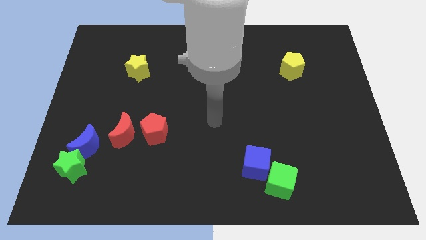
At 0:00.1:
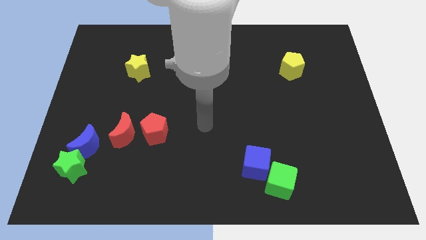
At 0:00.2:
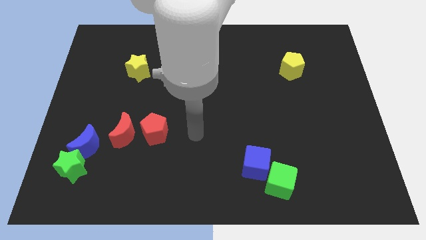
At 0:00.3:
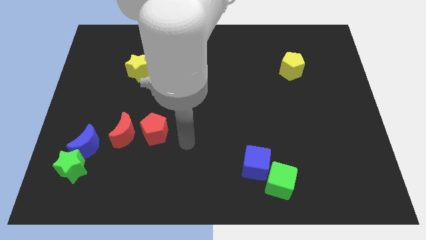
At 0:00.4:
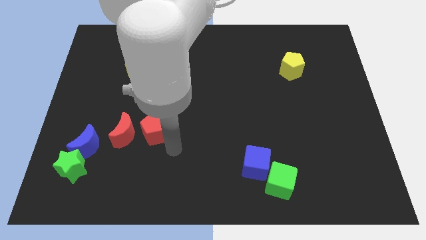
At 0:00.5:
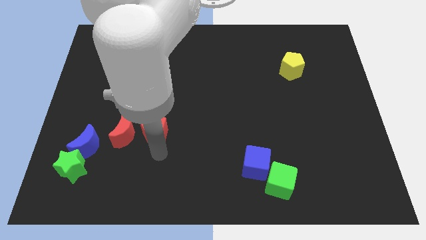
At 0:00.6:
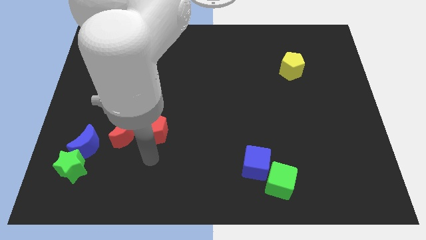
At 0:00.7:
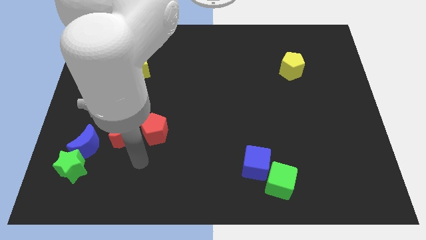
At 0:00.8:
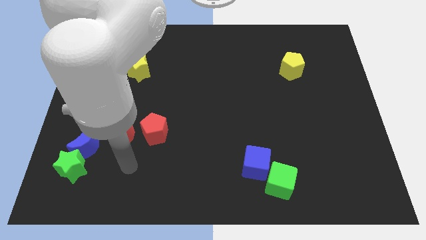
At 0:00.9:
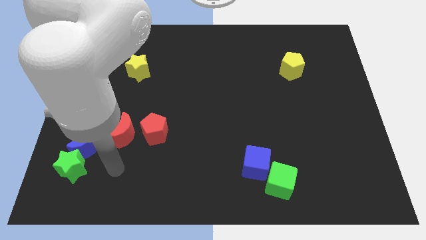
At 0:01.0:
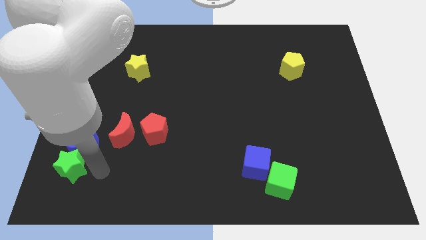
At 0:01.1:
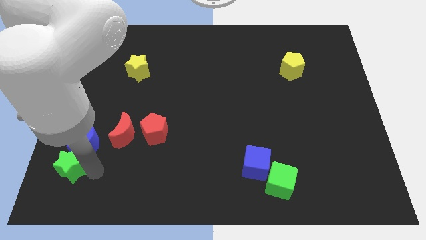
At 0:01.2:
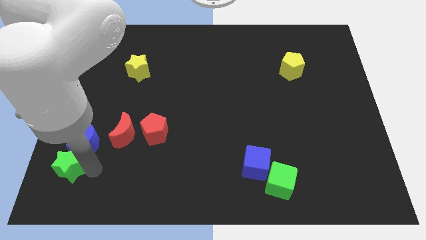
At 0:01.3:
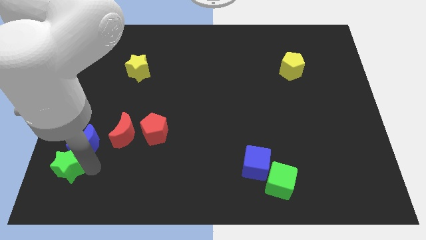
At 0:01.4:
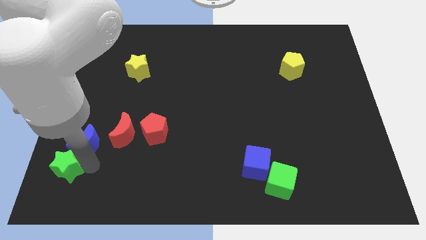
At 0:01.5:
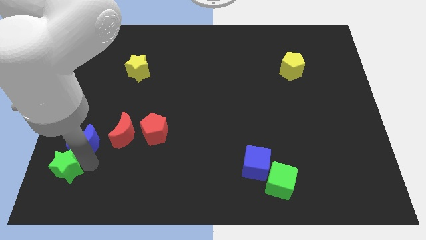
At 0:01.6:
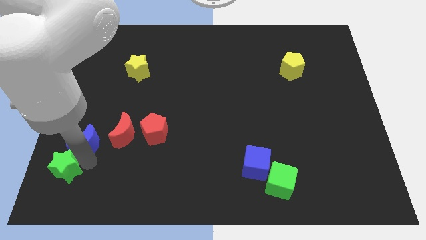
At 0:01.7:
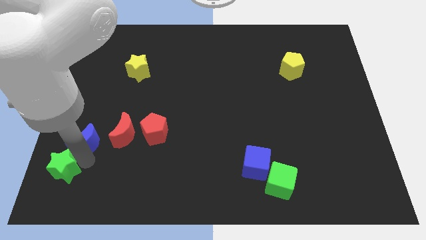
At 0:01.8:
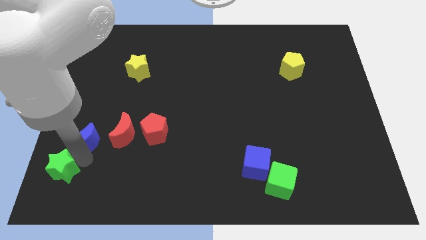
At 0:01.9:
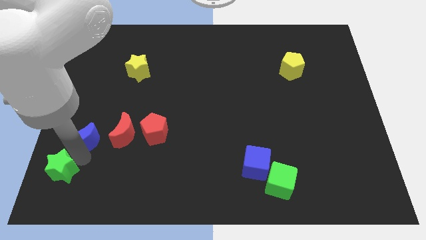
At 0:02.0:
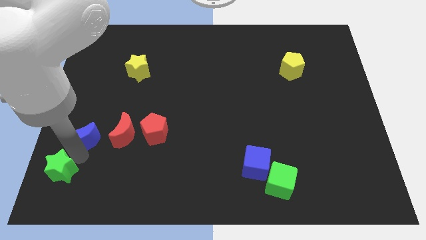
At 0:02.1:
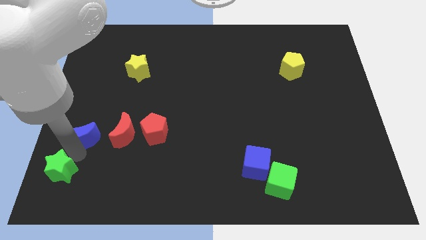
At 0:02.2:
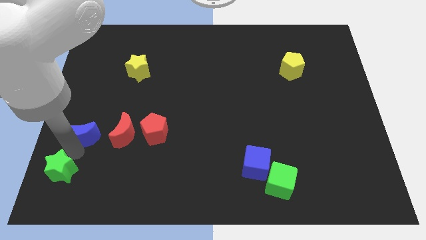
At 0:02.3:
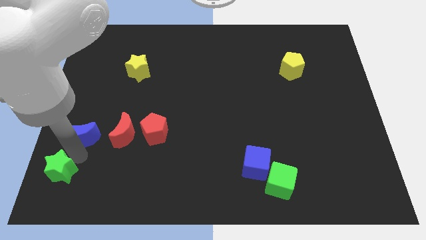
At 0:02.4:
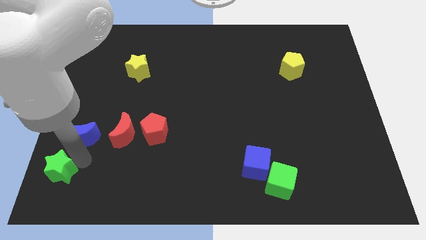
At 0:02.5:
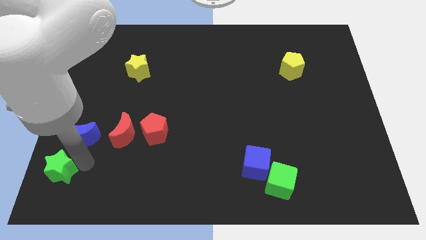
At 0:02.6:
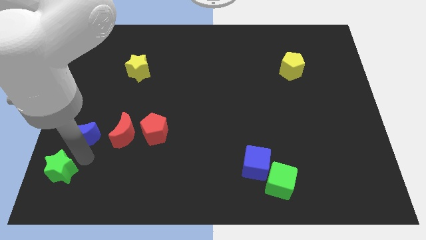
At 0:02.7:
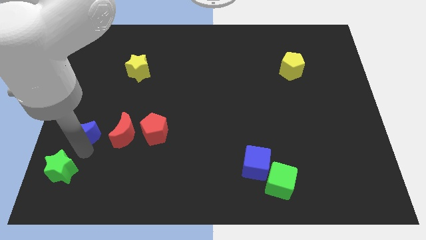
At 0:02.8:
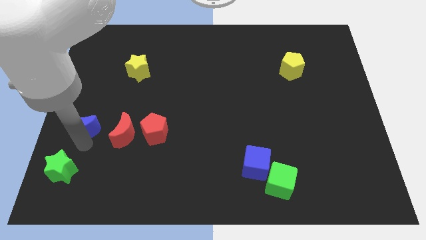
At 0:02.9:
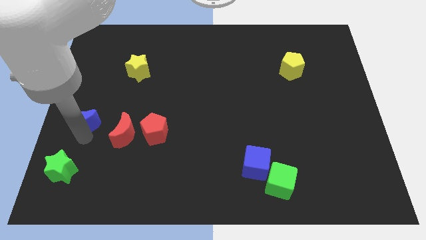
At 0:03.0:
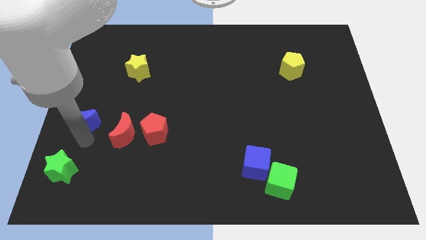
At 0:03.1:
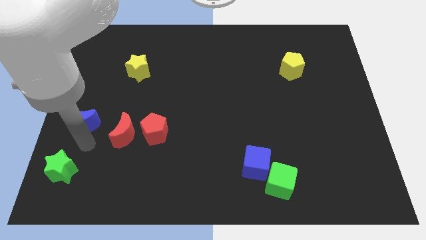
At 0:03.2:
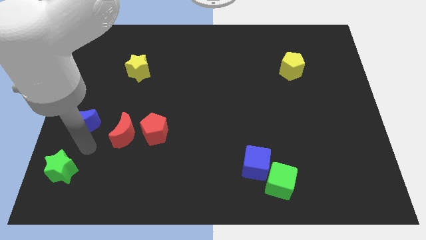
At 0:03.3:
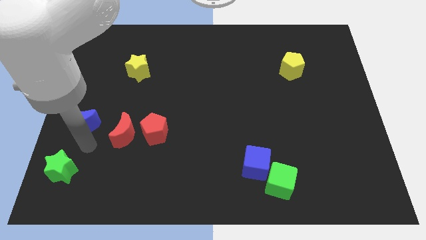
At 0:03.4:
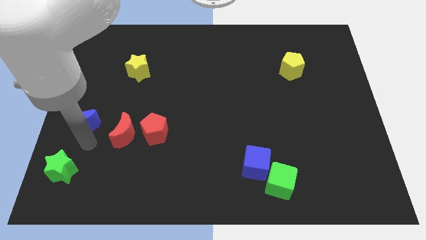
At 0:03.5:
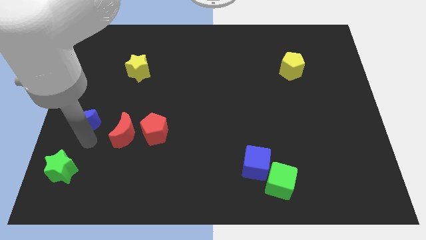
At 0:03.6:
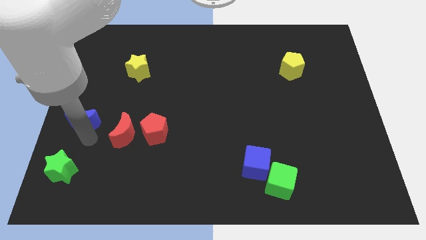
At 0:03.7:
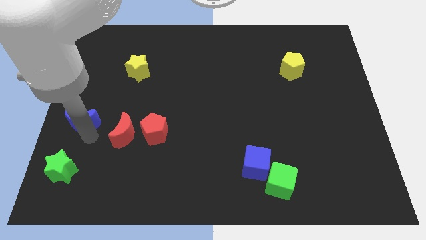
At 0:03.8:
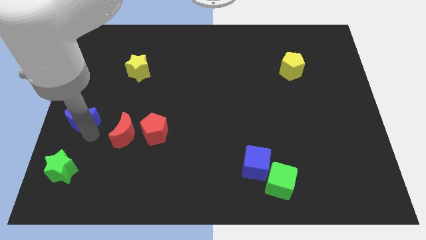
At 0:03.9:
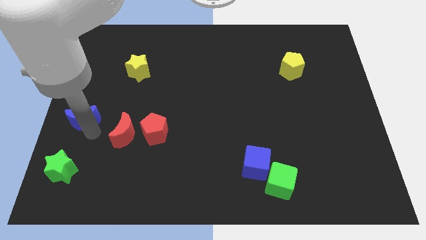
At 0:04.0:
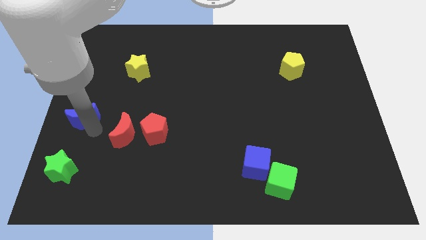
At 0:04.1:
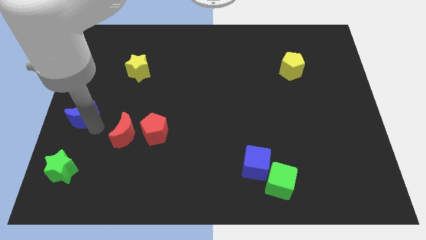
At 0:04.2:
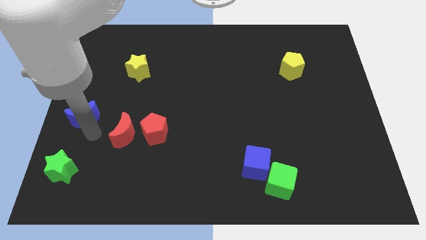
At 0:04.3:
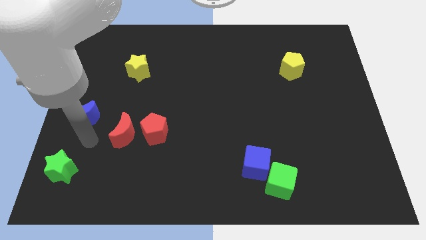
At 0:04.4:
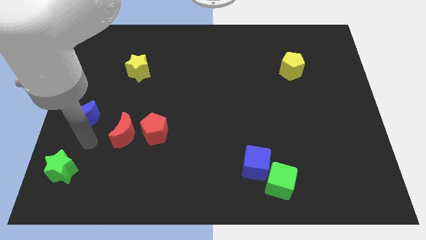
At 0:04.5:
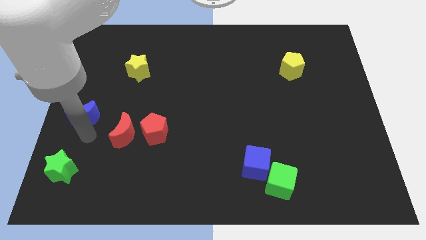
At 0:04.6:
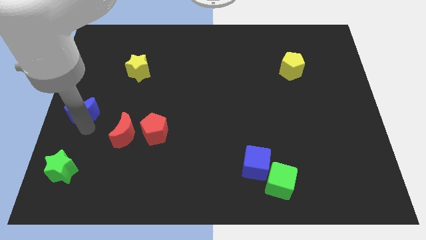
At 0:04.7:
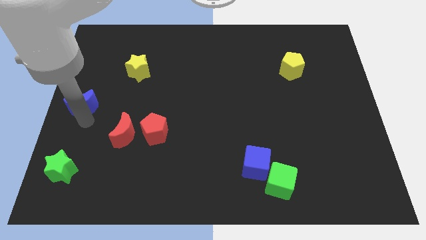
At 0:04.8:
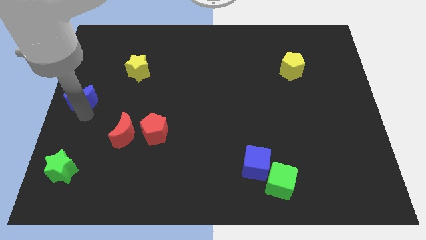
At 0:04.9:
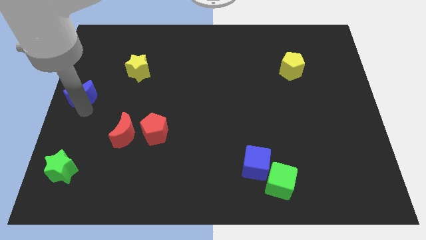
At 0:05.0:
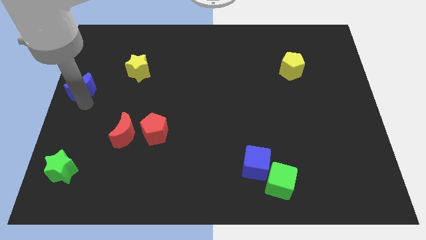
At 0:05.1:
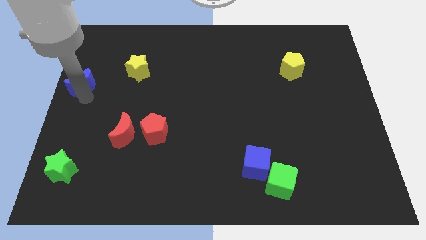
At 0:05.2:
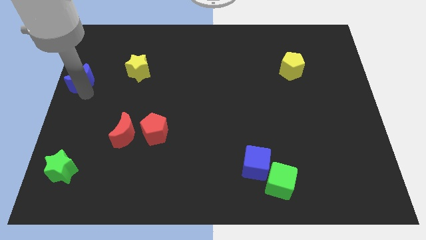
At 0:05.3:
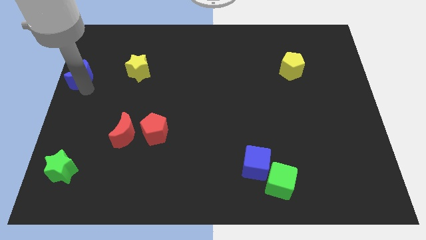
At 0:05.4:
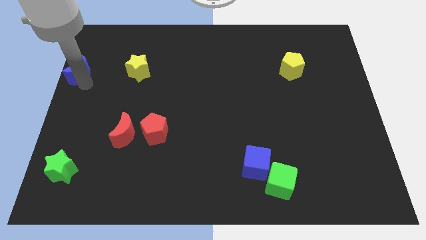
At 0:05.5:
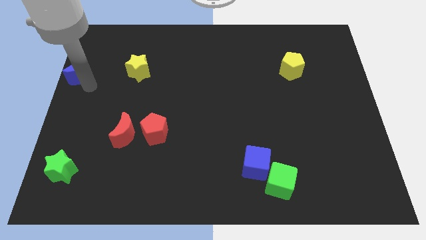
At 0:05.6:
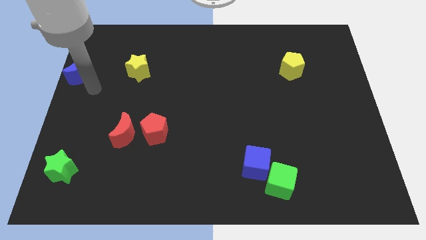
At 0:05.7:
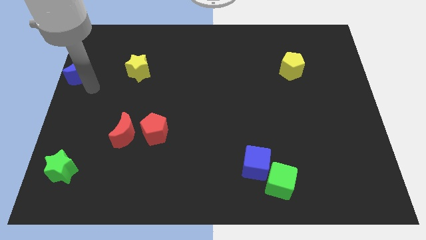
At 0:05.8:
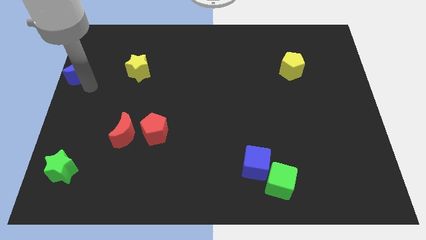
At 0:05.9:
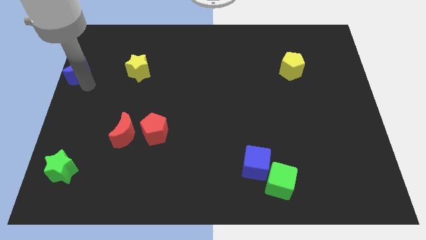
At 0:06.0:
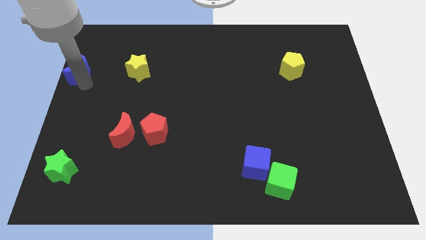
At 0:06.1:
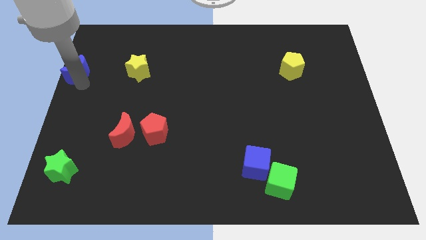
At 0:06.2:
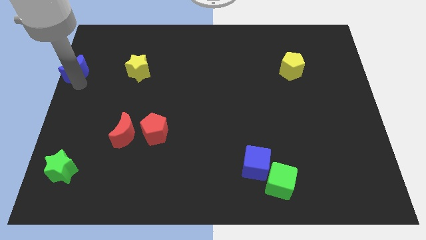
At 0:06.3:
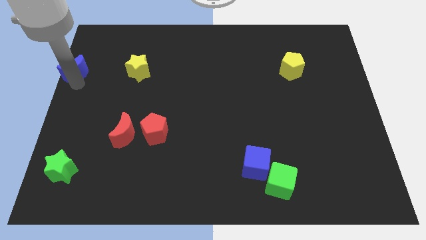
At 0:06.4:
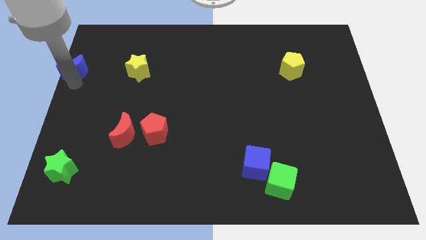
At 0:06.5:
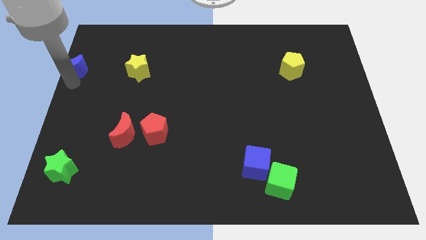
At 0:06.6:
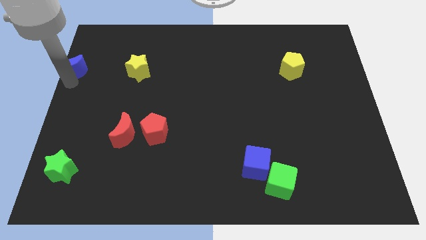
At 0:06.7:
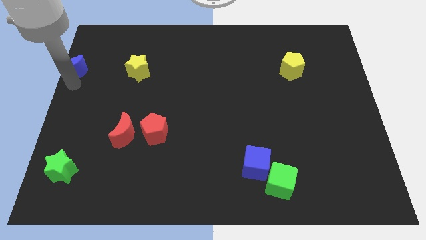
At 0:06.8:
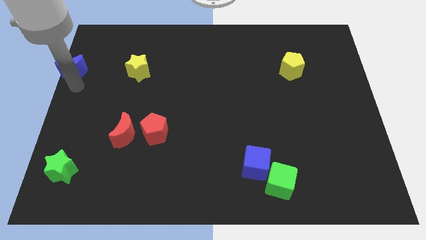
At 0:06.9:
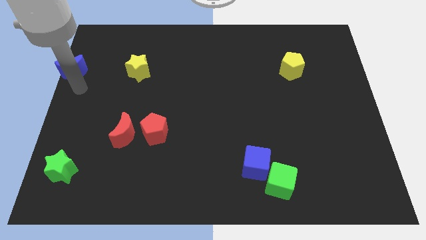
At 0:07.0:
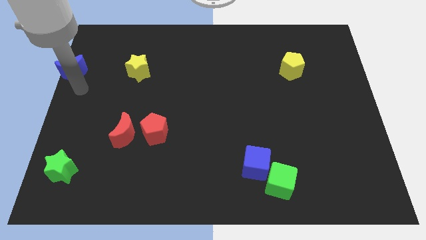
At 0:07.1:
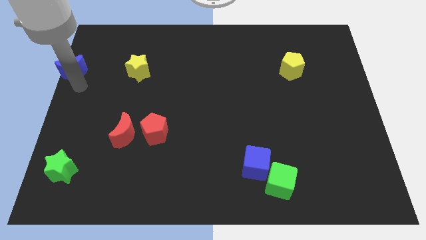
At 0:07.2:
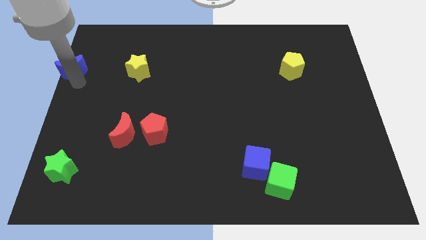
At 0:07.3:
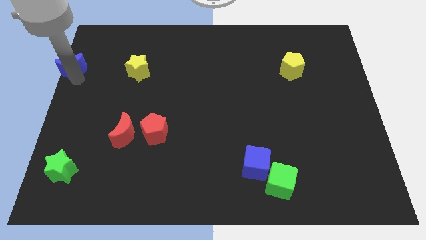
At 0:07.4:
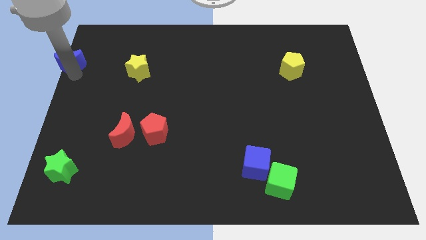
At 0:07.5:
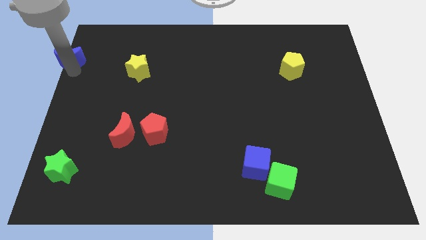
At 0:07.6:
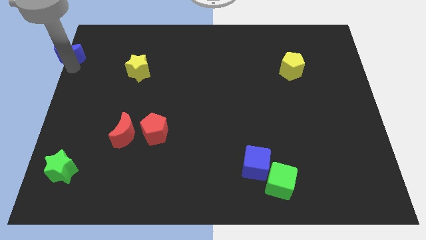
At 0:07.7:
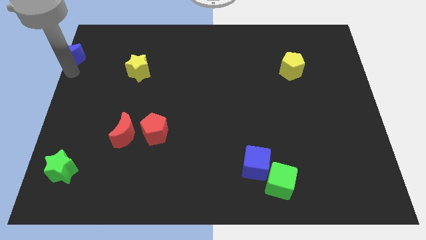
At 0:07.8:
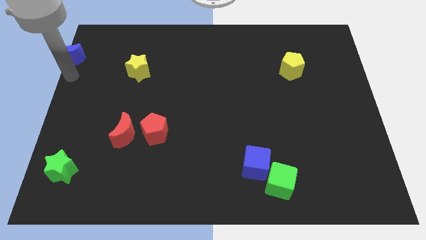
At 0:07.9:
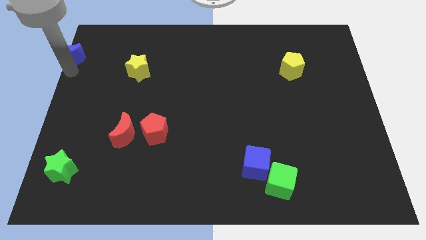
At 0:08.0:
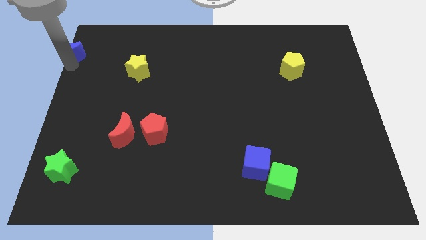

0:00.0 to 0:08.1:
put the blue moon to the top left of the board
